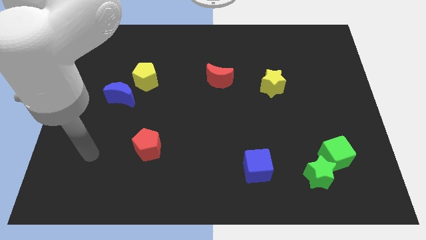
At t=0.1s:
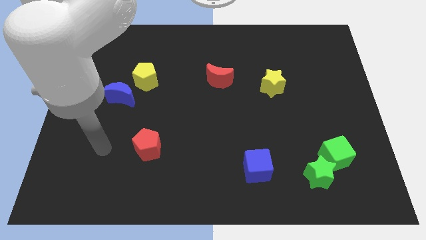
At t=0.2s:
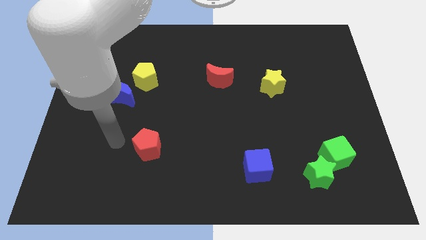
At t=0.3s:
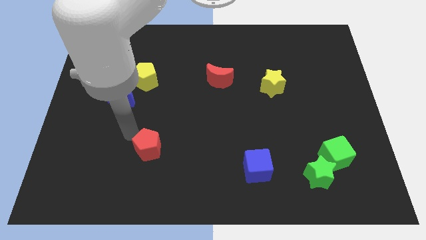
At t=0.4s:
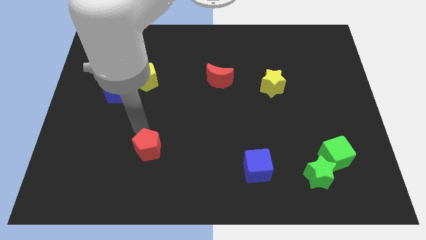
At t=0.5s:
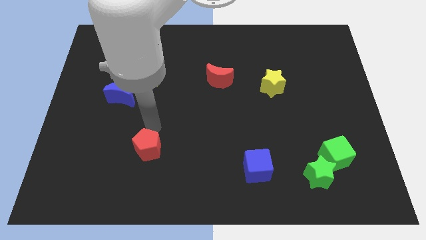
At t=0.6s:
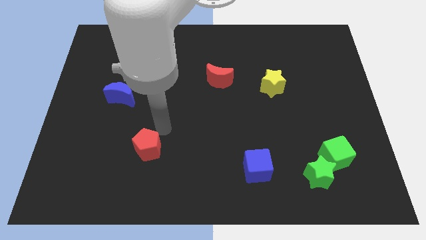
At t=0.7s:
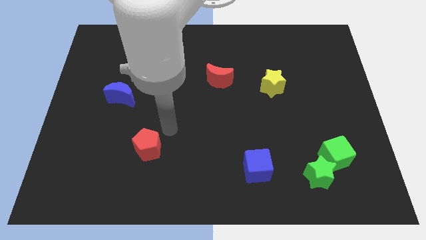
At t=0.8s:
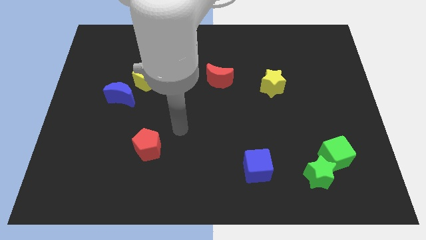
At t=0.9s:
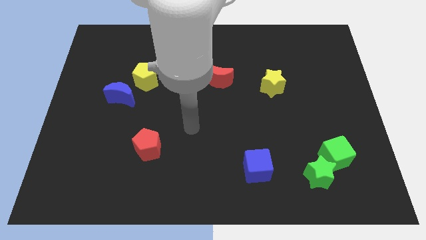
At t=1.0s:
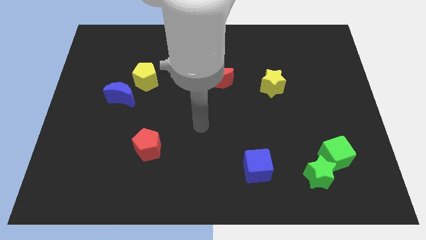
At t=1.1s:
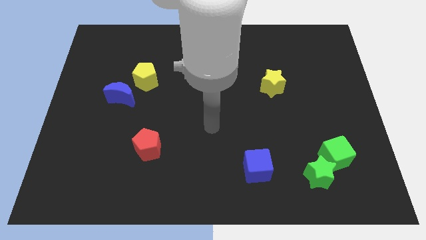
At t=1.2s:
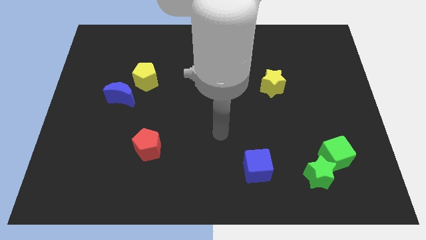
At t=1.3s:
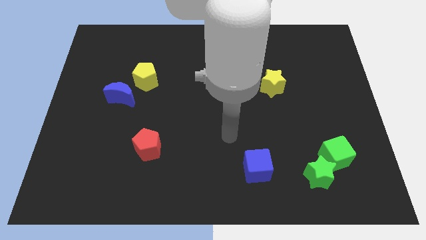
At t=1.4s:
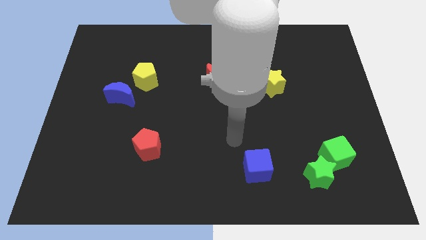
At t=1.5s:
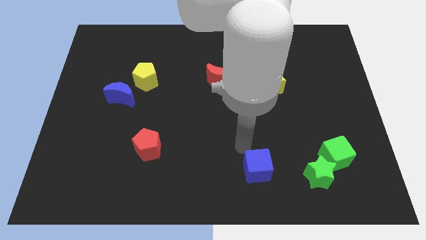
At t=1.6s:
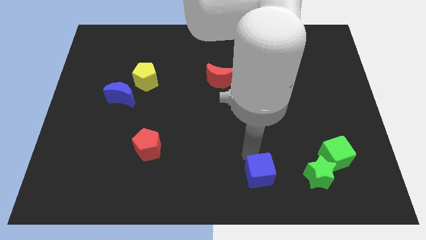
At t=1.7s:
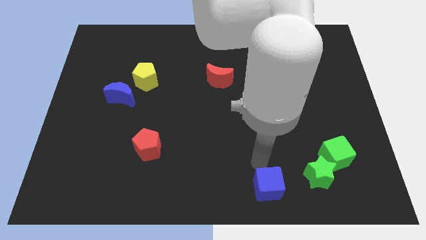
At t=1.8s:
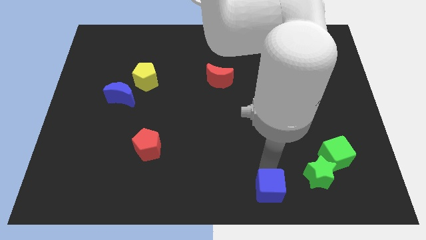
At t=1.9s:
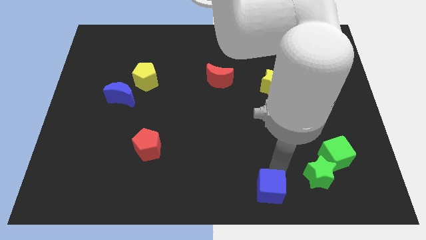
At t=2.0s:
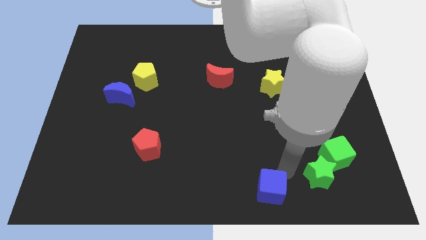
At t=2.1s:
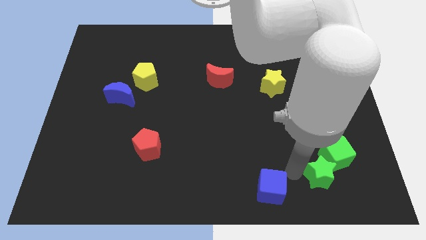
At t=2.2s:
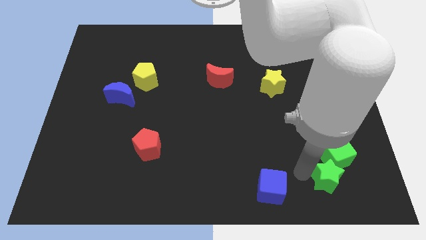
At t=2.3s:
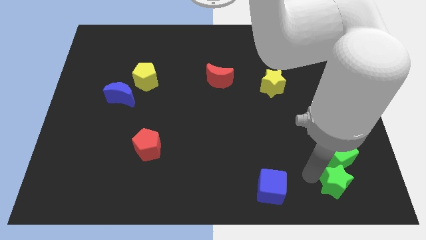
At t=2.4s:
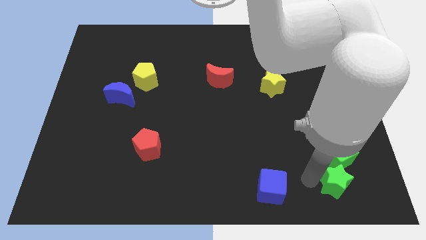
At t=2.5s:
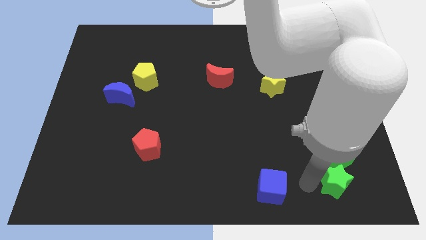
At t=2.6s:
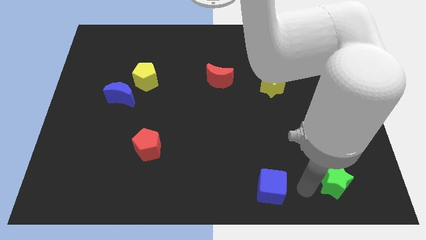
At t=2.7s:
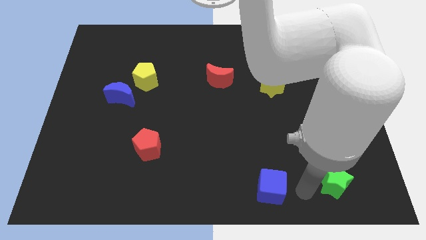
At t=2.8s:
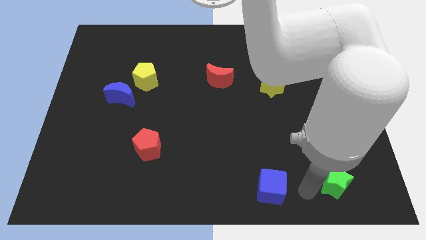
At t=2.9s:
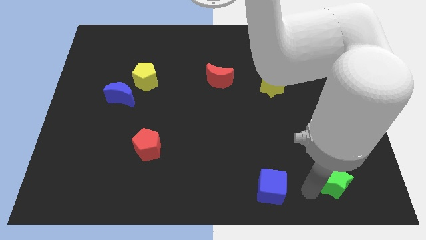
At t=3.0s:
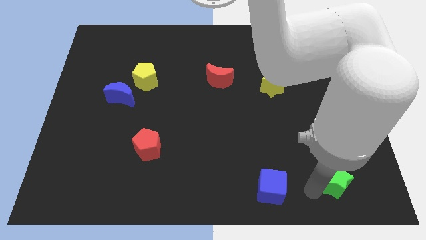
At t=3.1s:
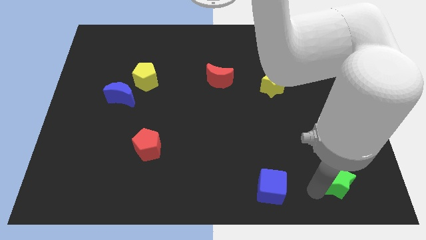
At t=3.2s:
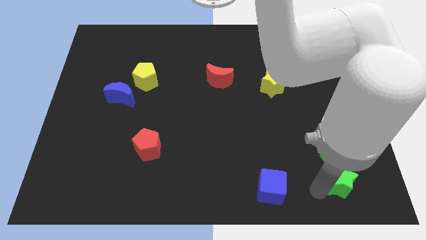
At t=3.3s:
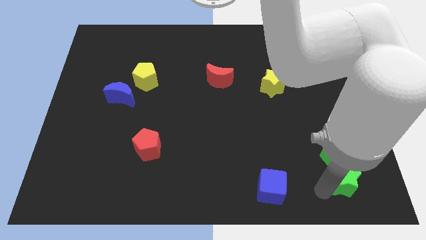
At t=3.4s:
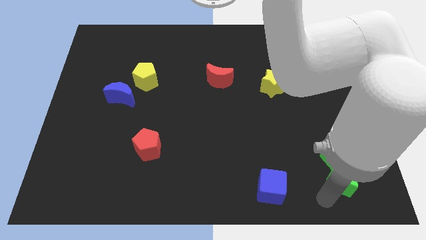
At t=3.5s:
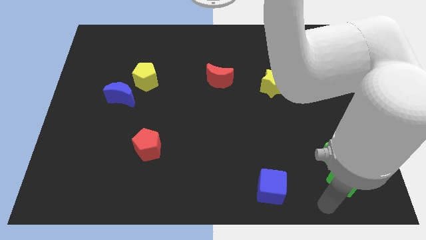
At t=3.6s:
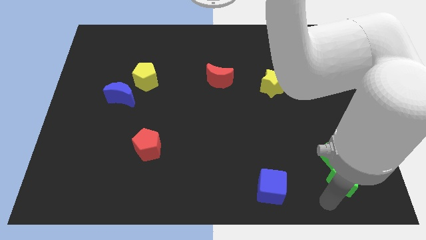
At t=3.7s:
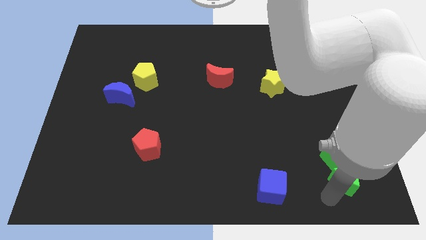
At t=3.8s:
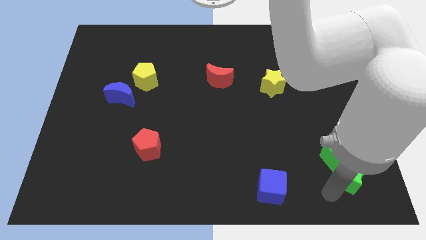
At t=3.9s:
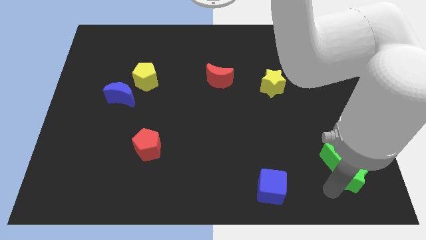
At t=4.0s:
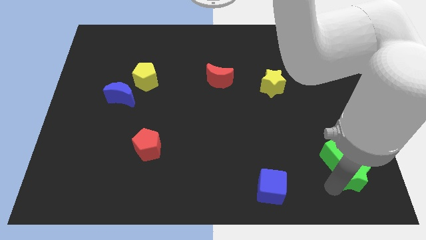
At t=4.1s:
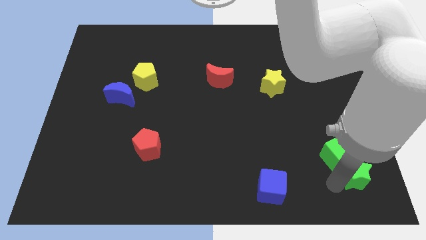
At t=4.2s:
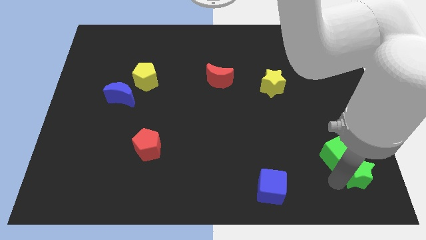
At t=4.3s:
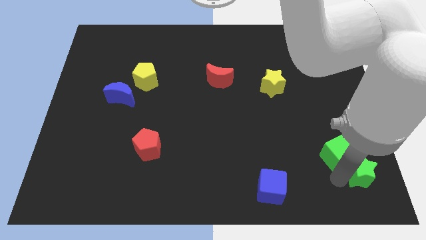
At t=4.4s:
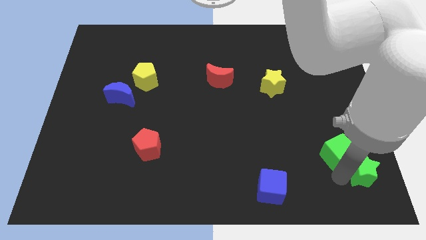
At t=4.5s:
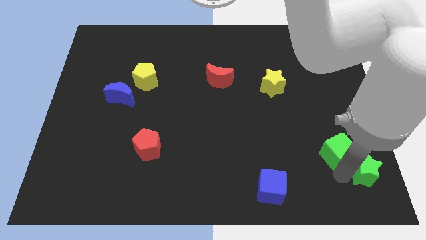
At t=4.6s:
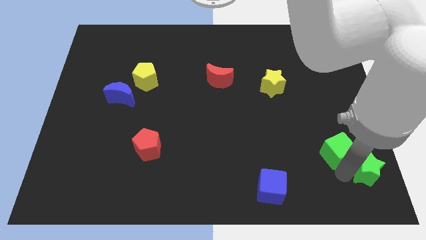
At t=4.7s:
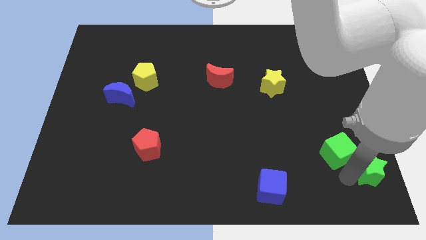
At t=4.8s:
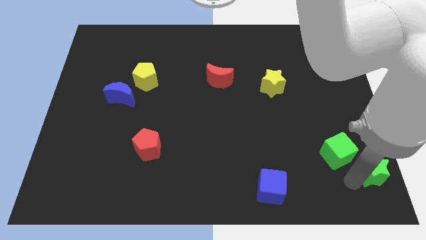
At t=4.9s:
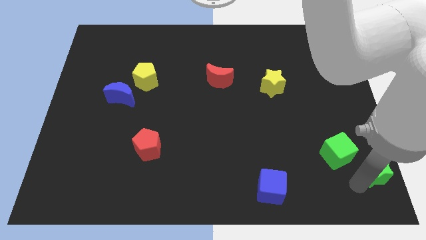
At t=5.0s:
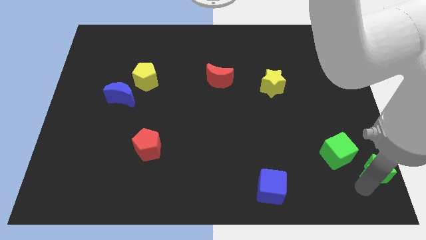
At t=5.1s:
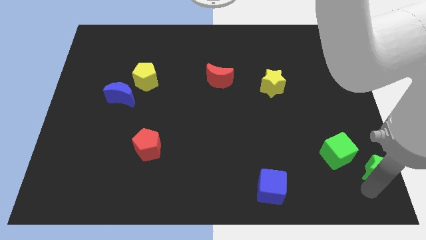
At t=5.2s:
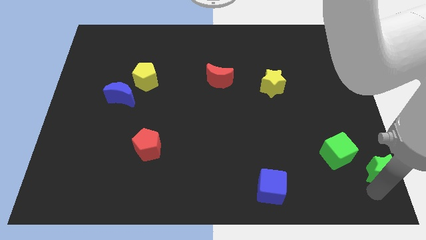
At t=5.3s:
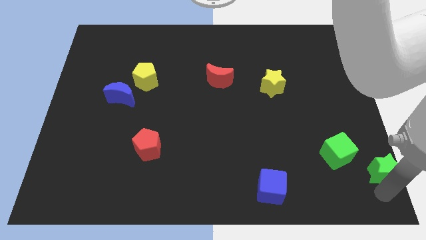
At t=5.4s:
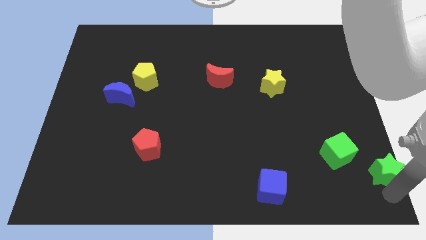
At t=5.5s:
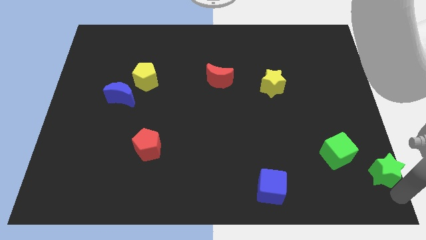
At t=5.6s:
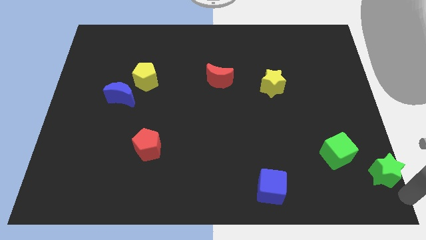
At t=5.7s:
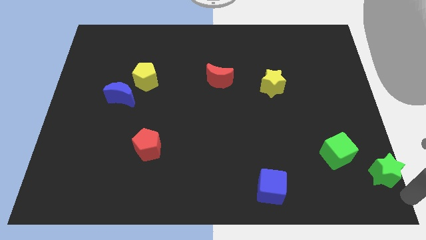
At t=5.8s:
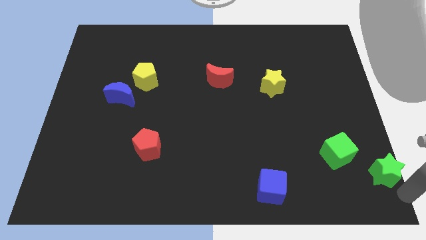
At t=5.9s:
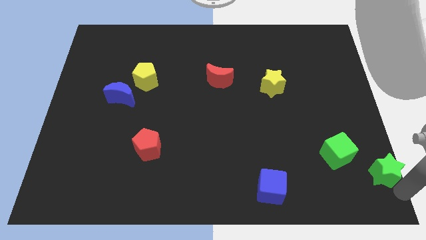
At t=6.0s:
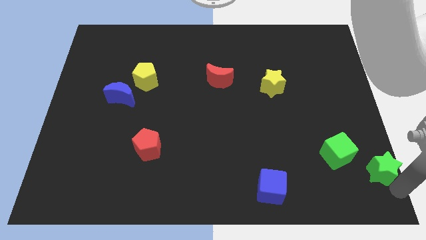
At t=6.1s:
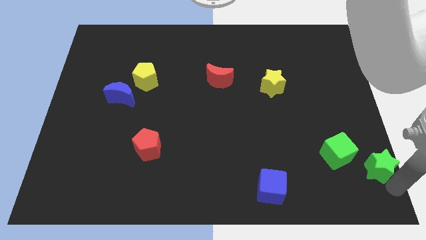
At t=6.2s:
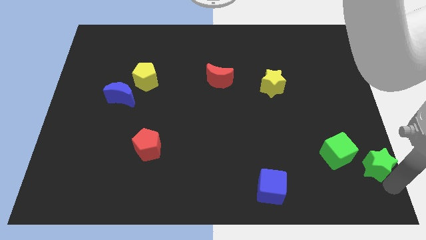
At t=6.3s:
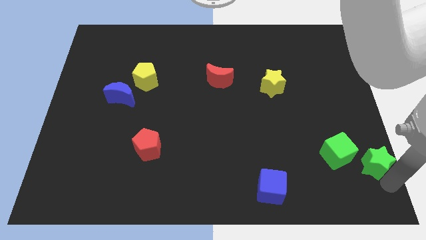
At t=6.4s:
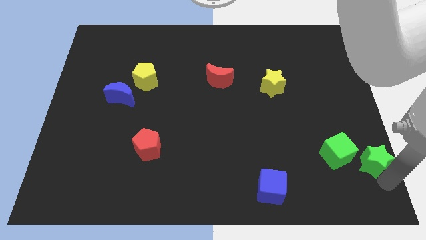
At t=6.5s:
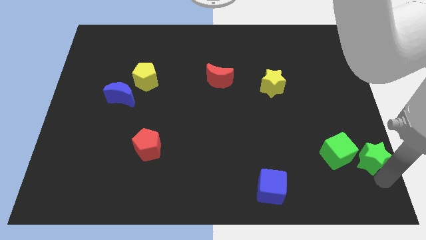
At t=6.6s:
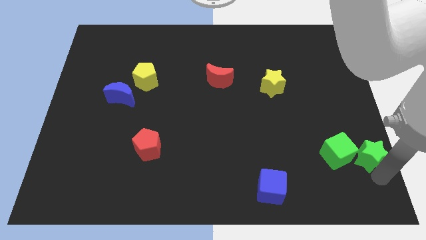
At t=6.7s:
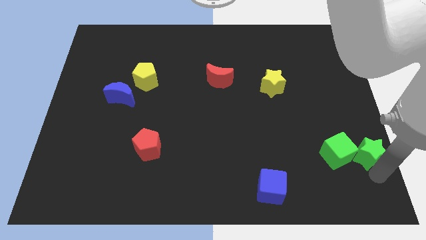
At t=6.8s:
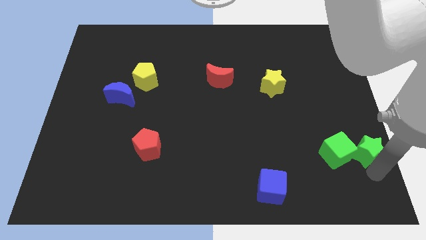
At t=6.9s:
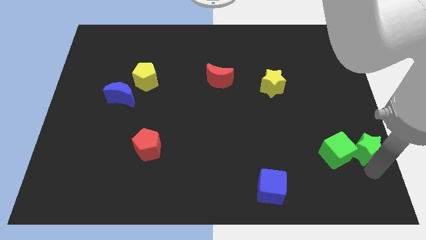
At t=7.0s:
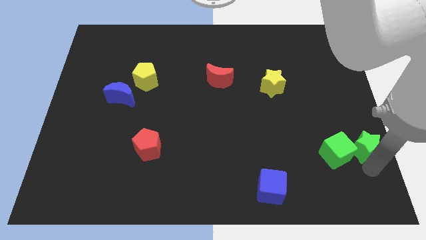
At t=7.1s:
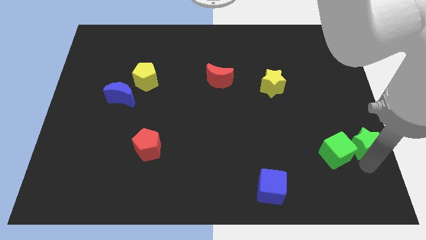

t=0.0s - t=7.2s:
slide the green star to the right side of the board
